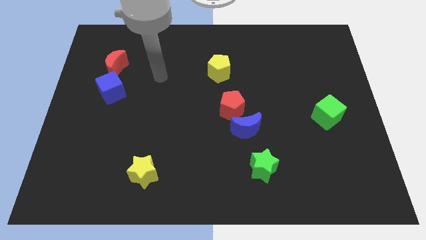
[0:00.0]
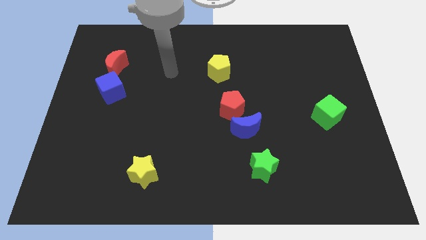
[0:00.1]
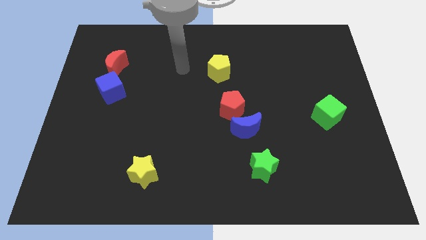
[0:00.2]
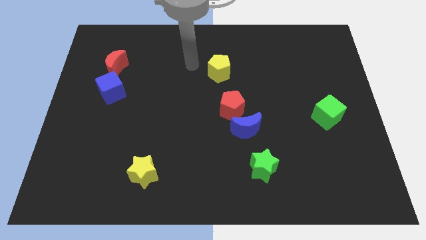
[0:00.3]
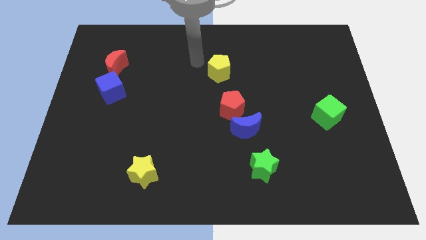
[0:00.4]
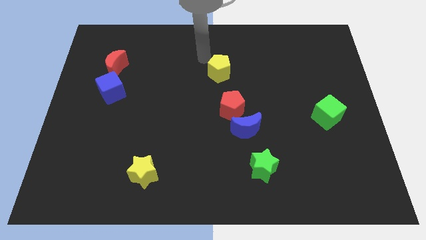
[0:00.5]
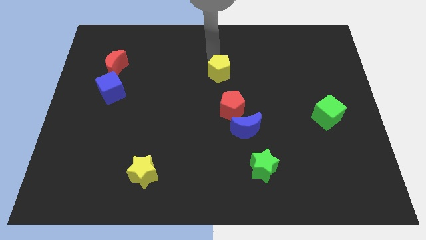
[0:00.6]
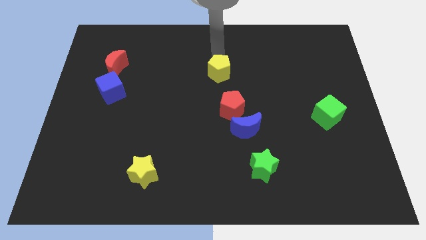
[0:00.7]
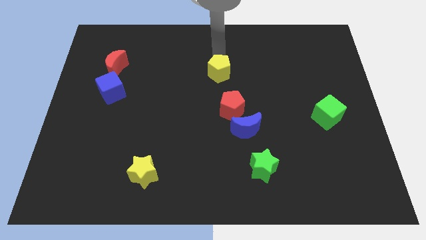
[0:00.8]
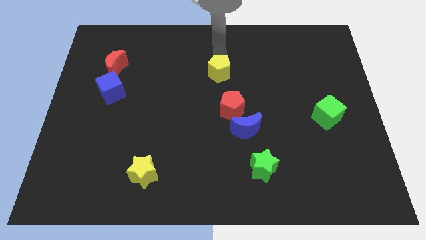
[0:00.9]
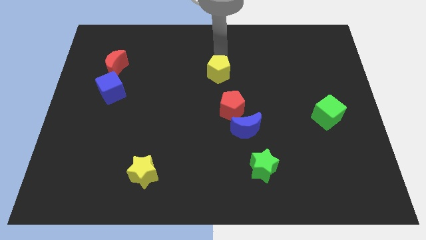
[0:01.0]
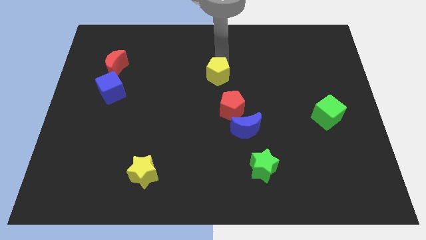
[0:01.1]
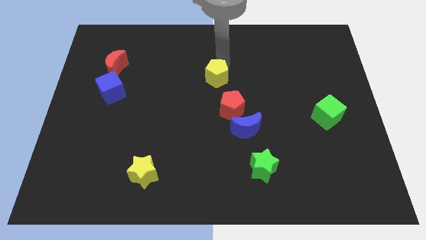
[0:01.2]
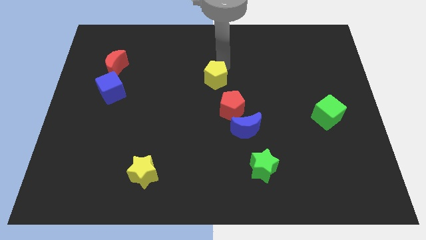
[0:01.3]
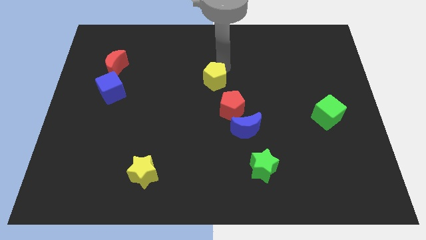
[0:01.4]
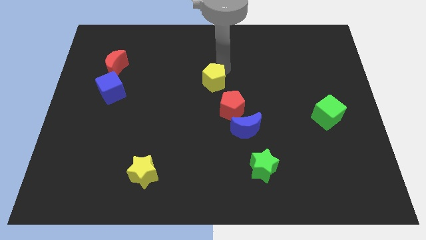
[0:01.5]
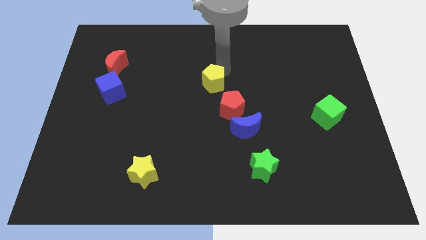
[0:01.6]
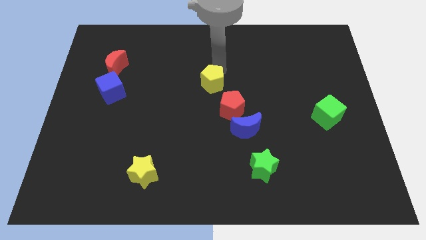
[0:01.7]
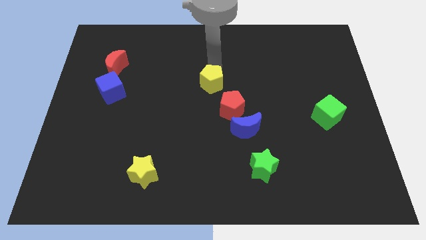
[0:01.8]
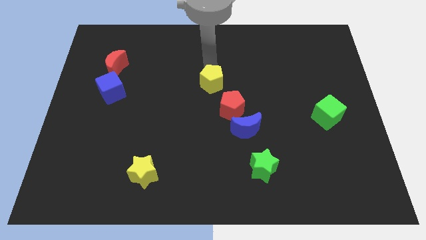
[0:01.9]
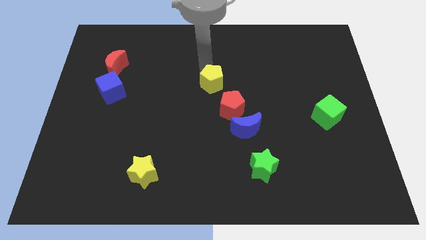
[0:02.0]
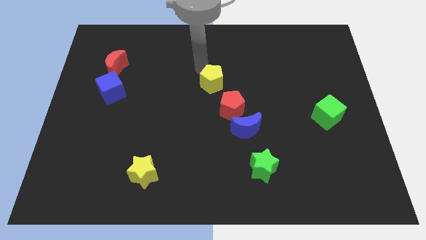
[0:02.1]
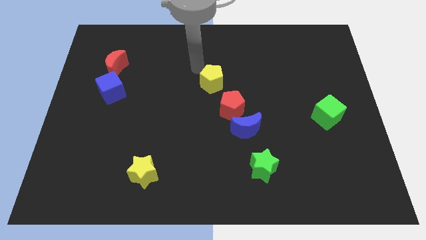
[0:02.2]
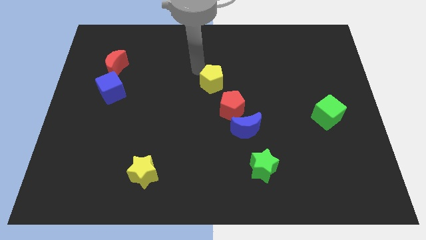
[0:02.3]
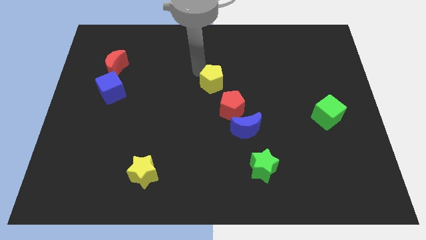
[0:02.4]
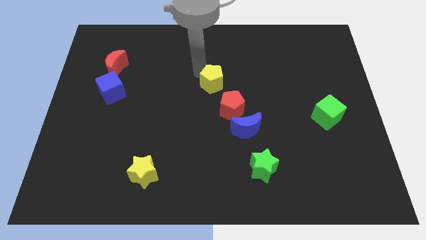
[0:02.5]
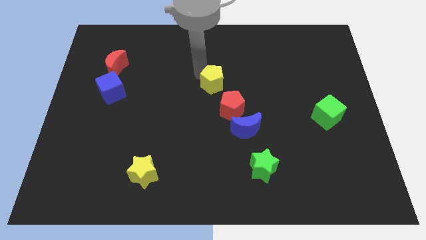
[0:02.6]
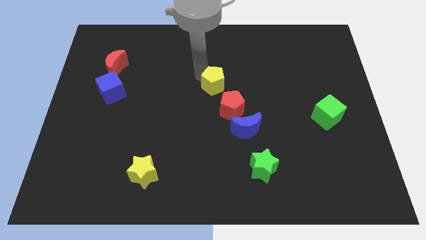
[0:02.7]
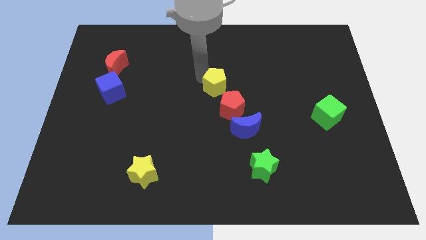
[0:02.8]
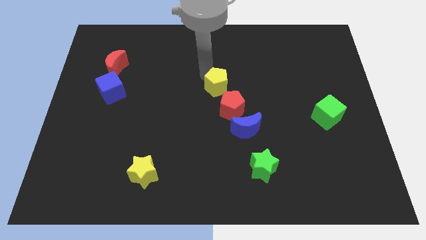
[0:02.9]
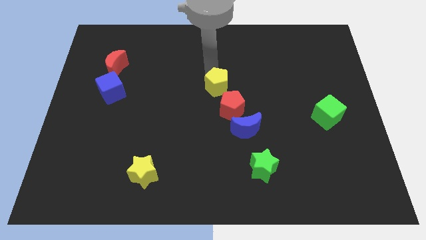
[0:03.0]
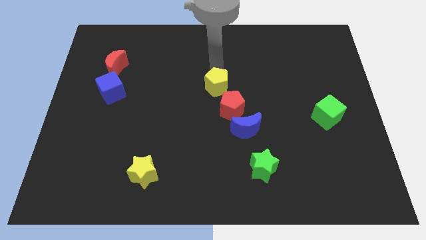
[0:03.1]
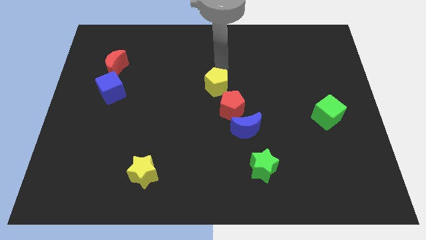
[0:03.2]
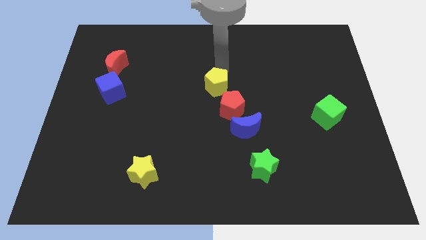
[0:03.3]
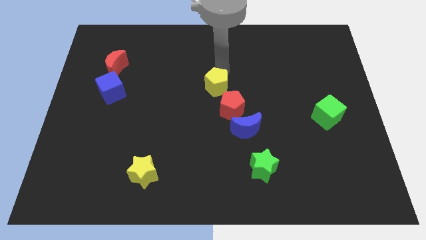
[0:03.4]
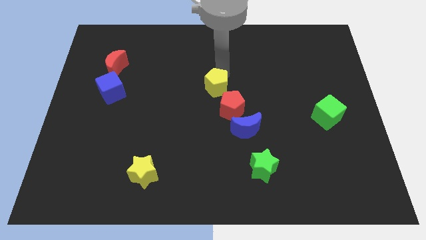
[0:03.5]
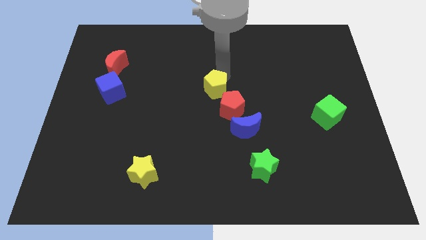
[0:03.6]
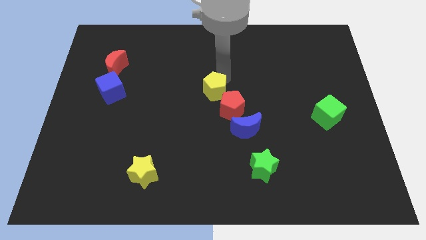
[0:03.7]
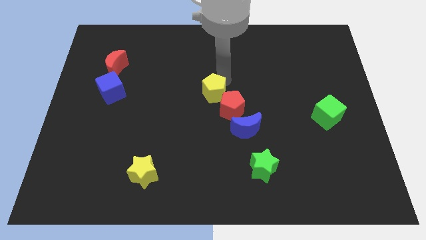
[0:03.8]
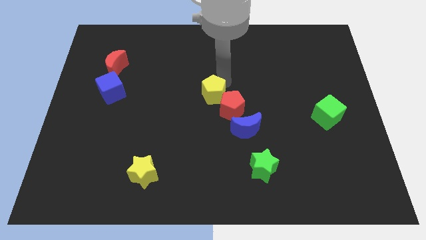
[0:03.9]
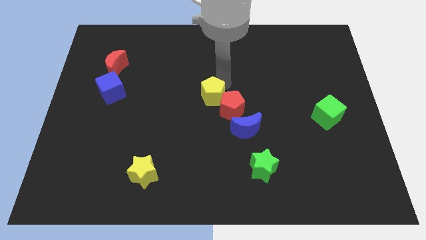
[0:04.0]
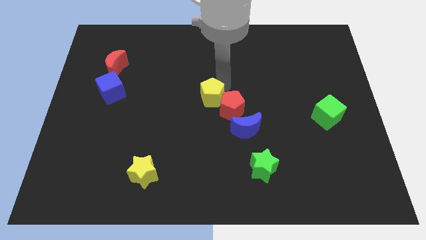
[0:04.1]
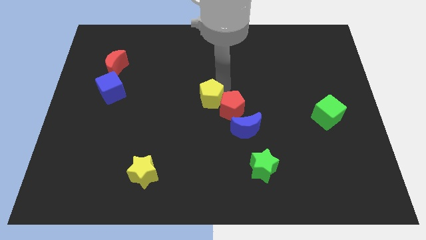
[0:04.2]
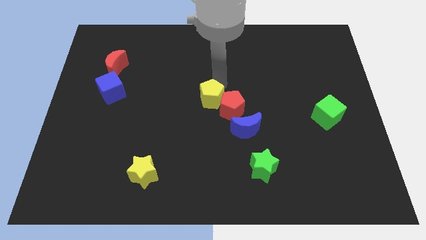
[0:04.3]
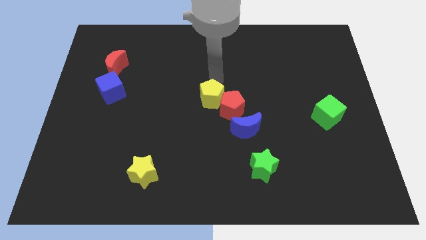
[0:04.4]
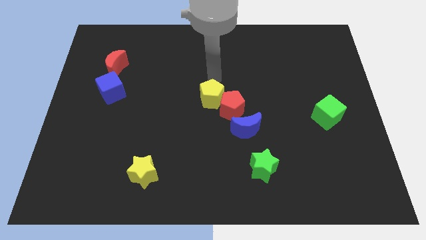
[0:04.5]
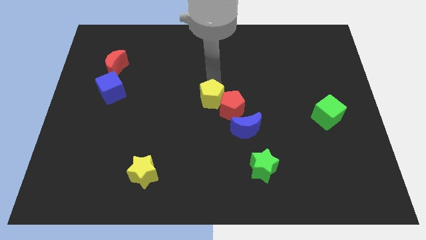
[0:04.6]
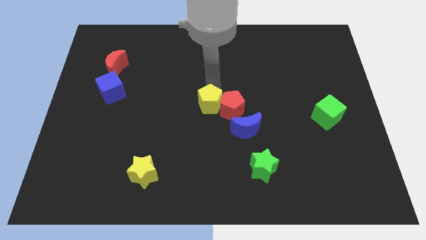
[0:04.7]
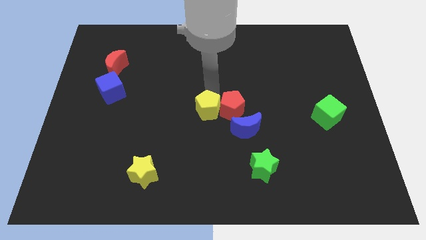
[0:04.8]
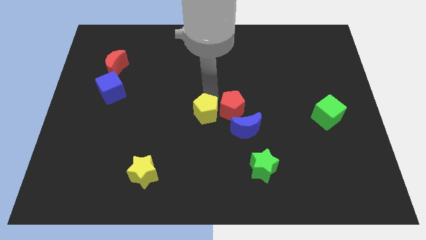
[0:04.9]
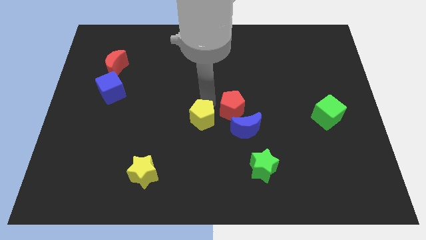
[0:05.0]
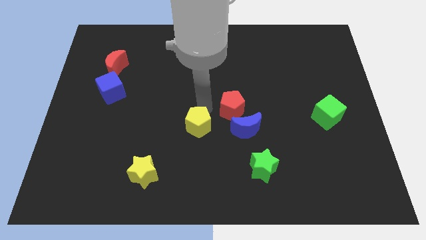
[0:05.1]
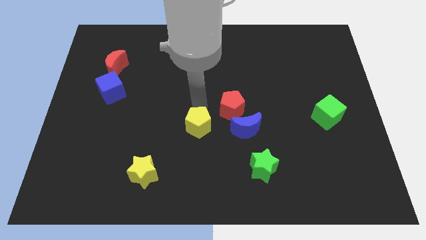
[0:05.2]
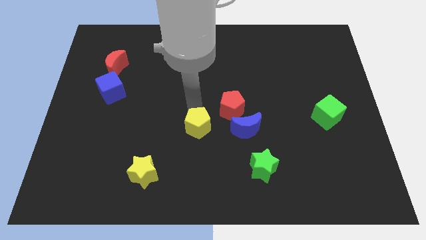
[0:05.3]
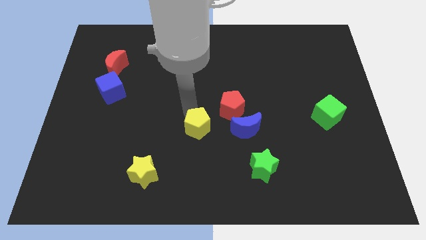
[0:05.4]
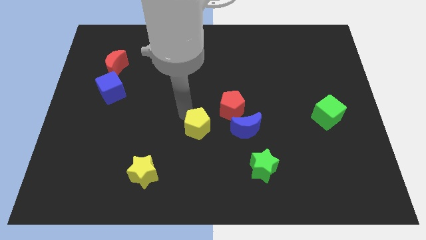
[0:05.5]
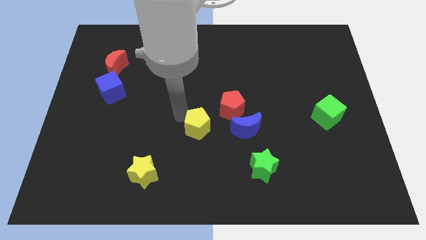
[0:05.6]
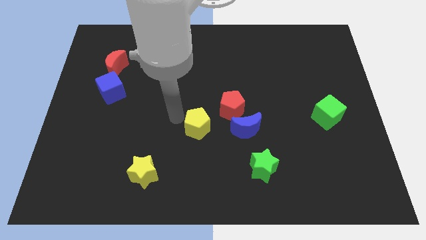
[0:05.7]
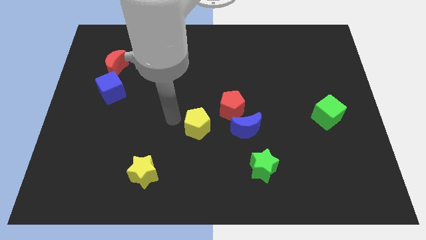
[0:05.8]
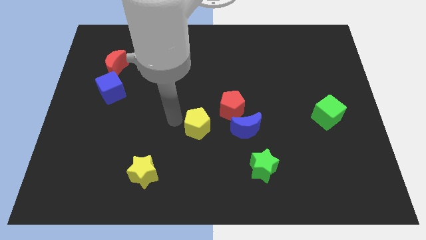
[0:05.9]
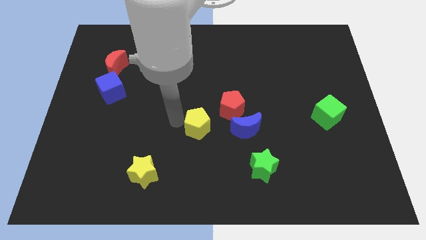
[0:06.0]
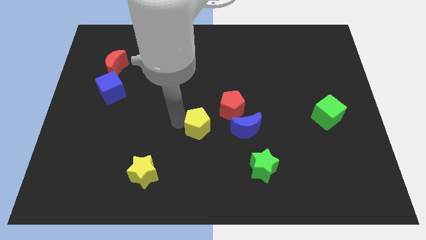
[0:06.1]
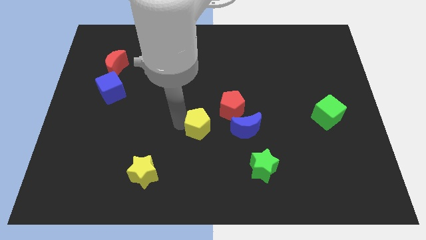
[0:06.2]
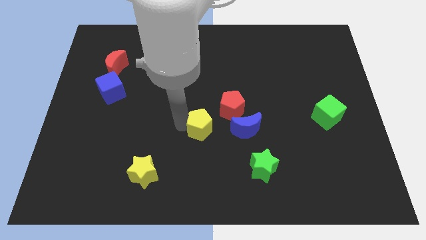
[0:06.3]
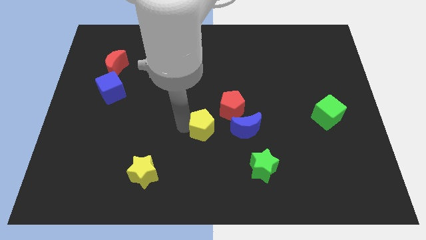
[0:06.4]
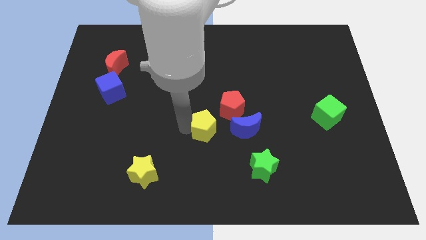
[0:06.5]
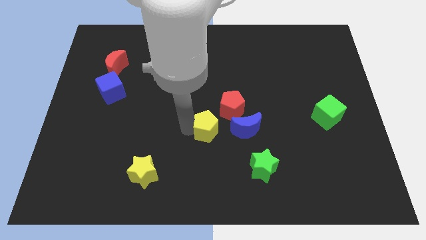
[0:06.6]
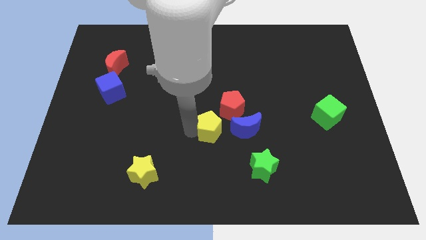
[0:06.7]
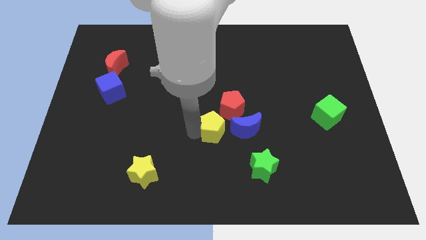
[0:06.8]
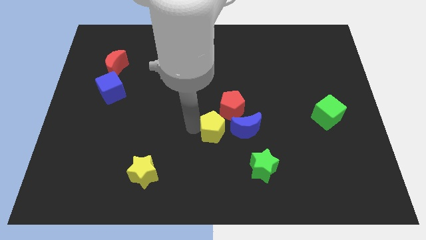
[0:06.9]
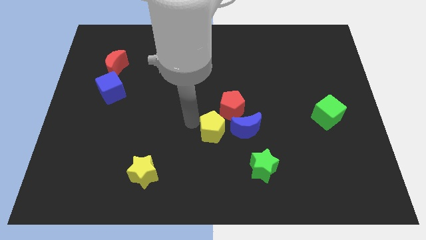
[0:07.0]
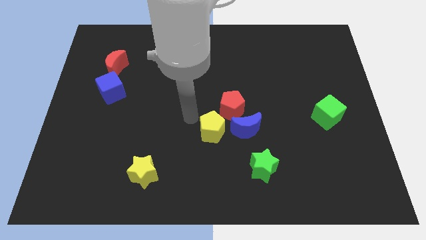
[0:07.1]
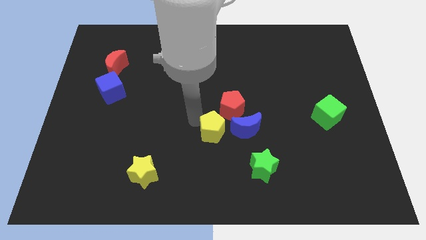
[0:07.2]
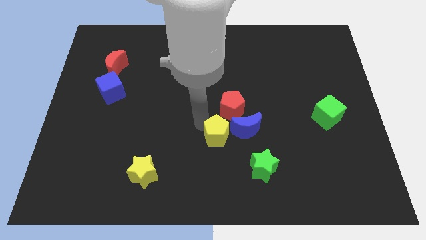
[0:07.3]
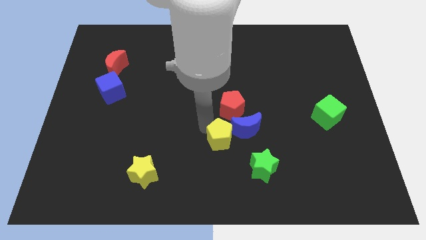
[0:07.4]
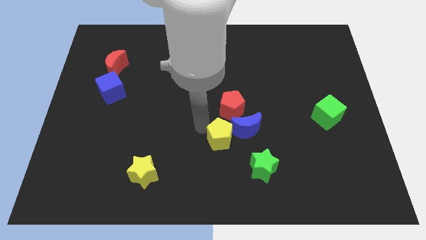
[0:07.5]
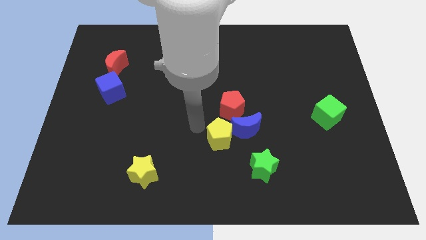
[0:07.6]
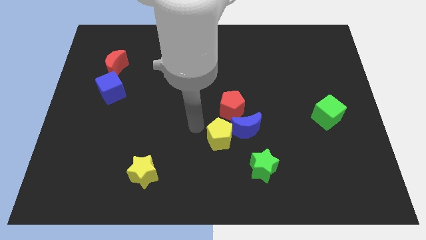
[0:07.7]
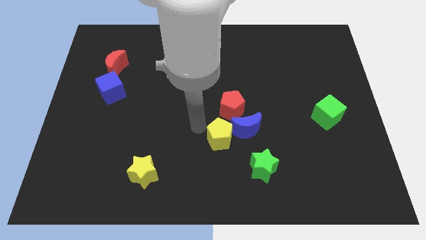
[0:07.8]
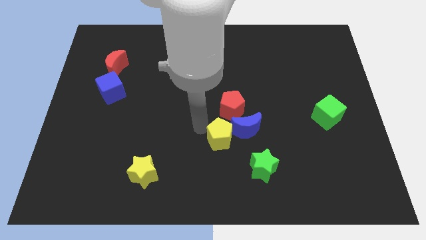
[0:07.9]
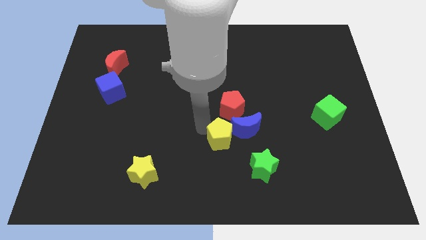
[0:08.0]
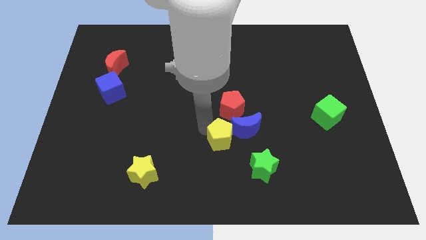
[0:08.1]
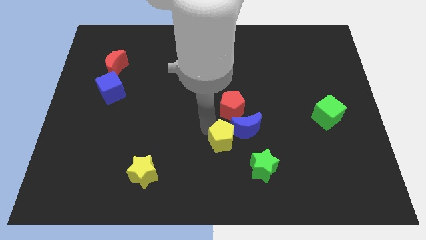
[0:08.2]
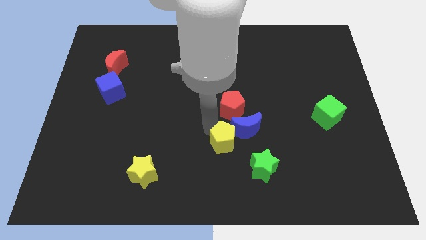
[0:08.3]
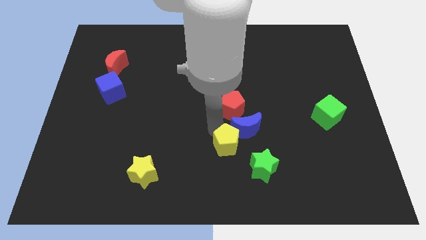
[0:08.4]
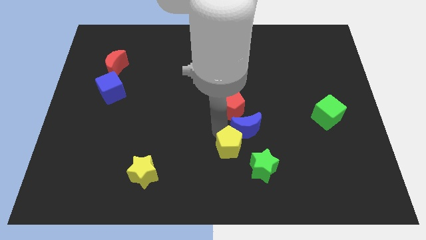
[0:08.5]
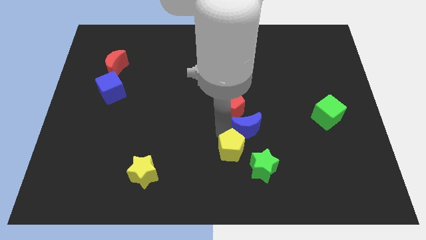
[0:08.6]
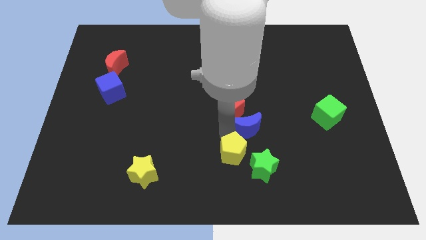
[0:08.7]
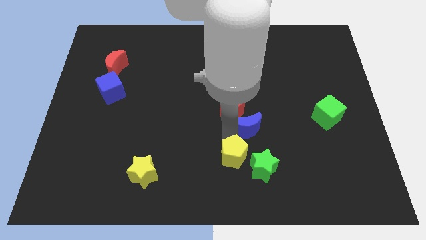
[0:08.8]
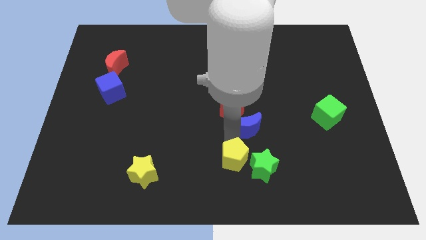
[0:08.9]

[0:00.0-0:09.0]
slide the yellow pentagon to the green star
